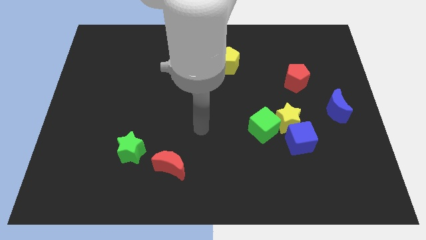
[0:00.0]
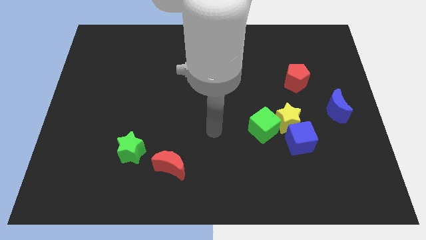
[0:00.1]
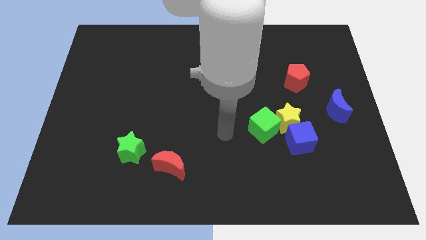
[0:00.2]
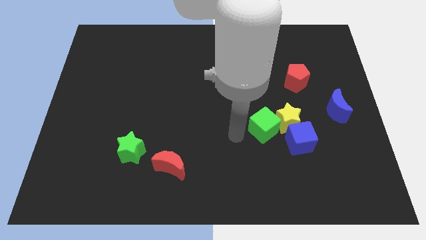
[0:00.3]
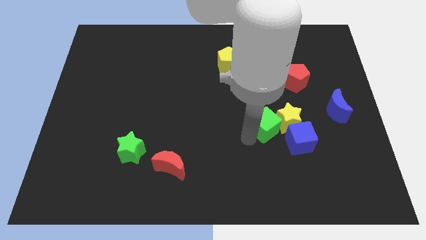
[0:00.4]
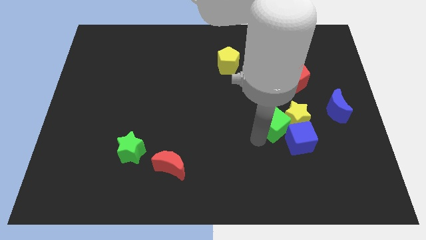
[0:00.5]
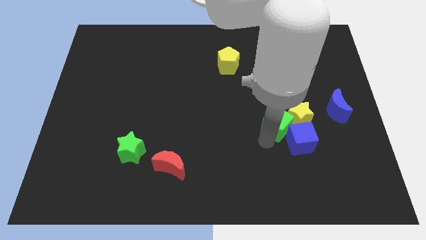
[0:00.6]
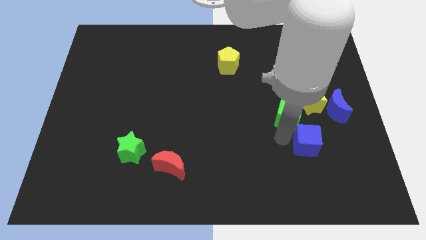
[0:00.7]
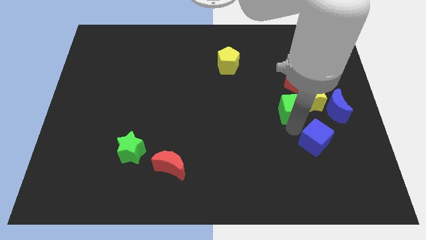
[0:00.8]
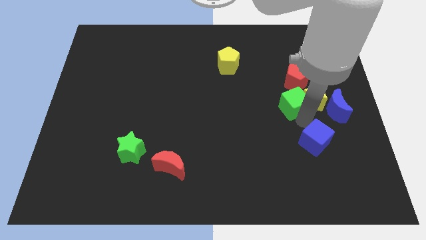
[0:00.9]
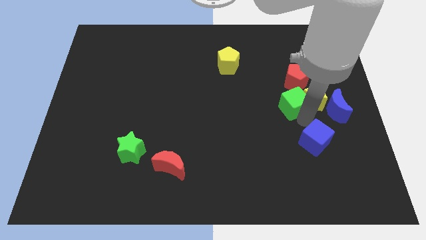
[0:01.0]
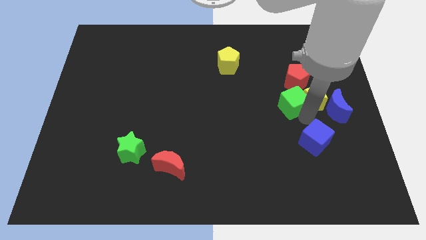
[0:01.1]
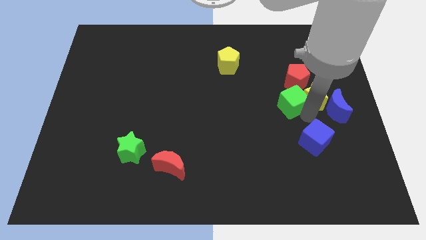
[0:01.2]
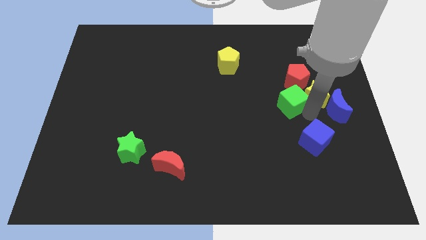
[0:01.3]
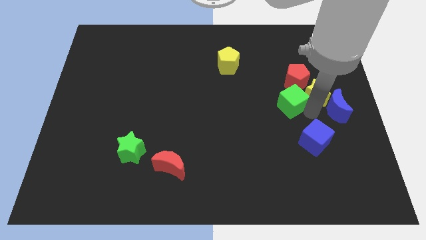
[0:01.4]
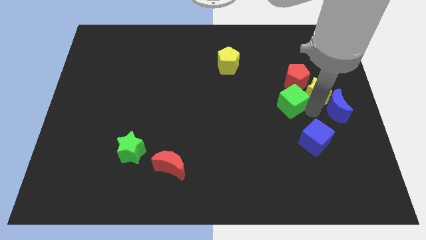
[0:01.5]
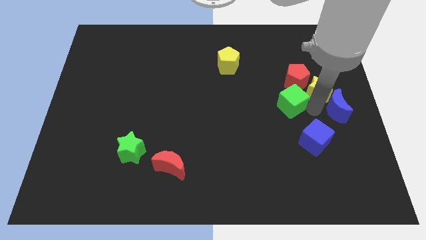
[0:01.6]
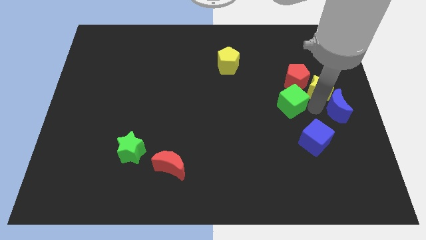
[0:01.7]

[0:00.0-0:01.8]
move the yellow star away from the blue cube and green cube

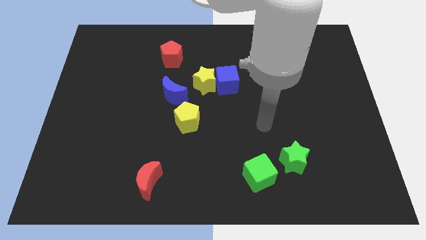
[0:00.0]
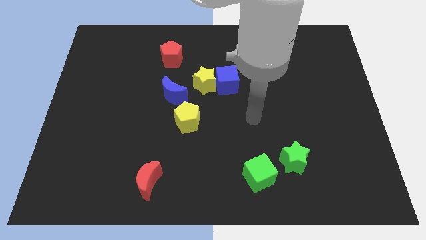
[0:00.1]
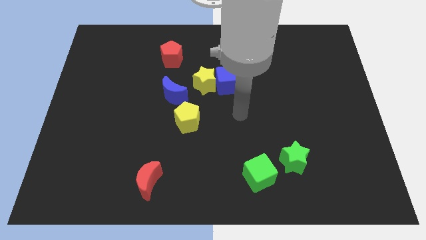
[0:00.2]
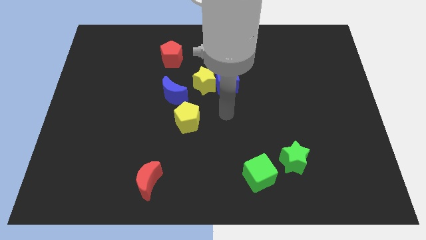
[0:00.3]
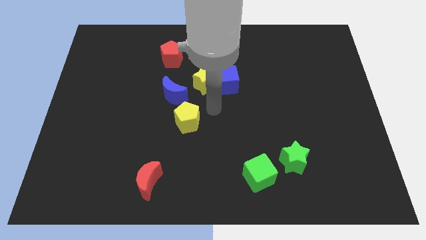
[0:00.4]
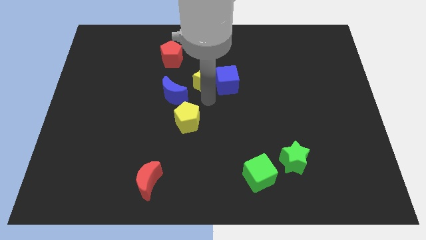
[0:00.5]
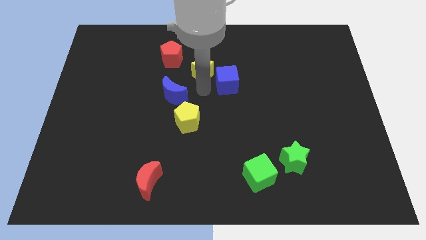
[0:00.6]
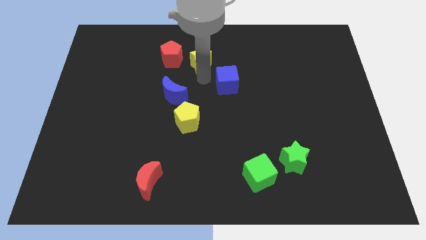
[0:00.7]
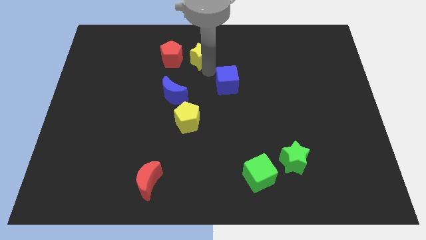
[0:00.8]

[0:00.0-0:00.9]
move the blue cube away from the yellow star

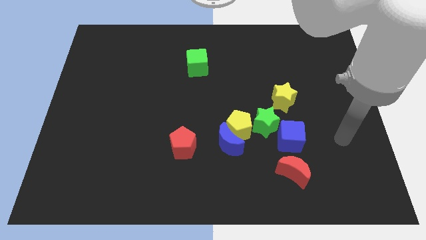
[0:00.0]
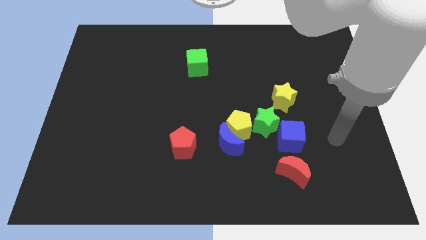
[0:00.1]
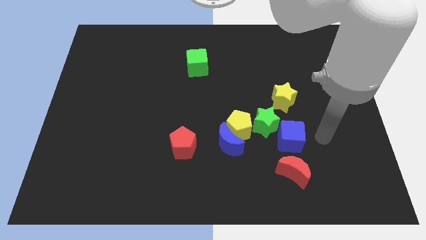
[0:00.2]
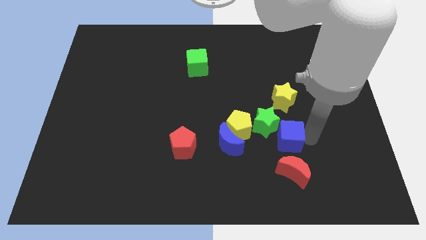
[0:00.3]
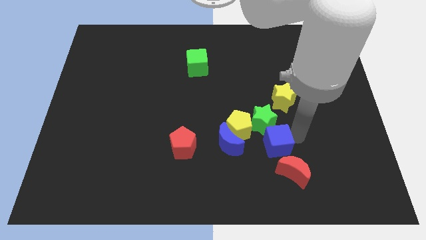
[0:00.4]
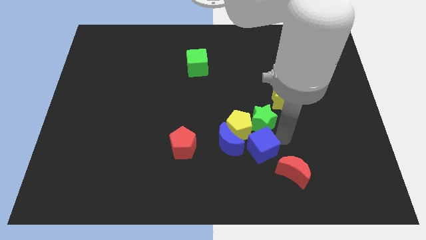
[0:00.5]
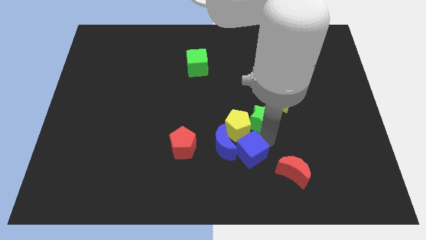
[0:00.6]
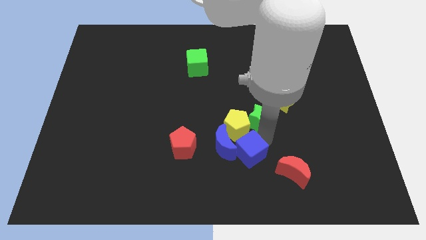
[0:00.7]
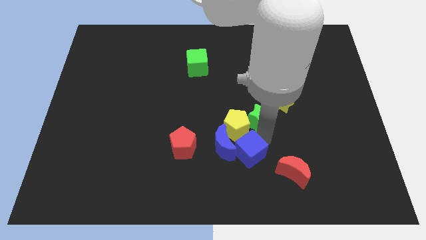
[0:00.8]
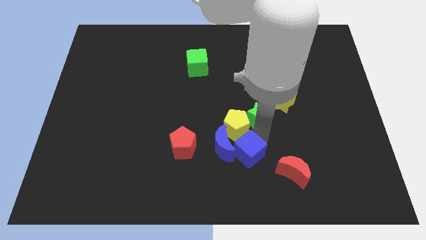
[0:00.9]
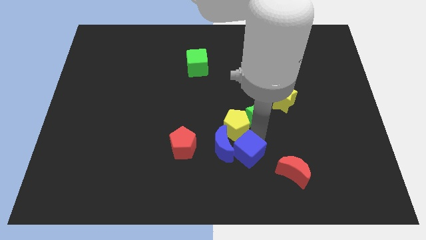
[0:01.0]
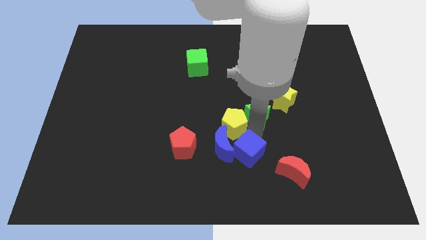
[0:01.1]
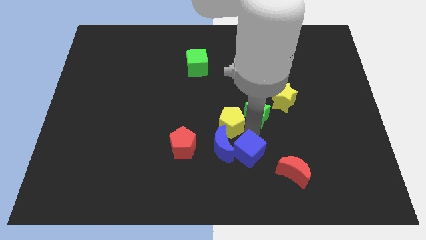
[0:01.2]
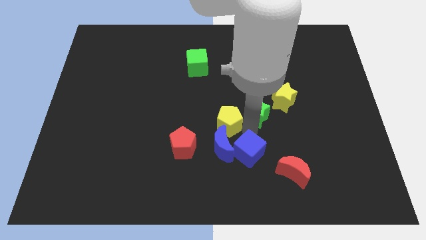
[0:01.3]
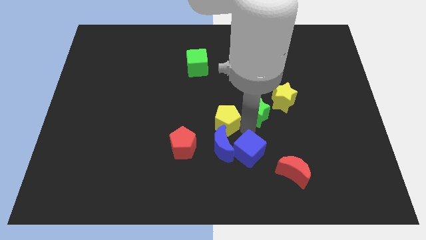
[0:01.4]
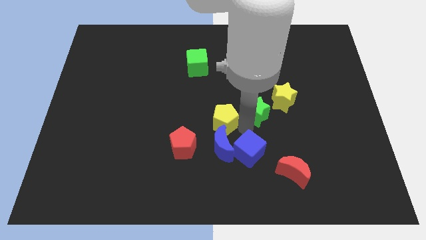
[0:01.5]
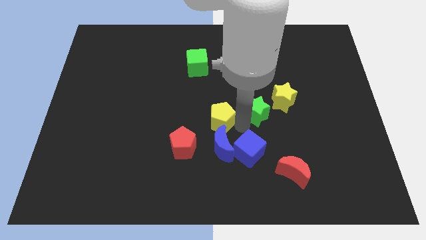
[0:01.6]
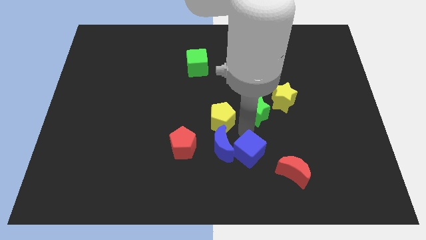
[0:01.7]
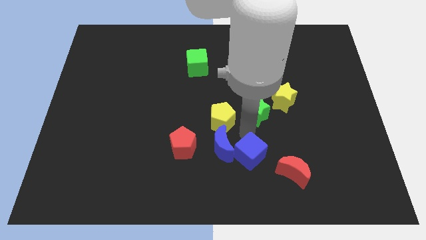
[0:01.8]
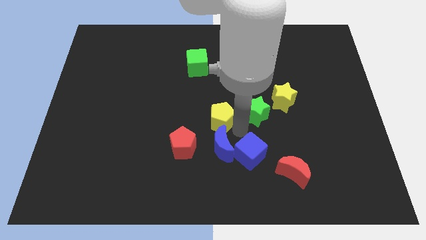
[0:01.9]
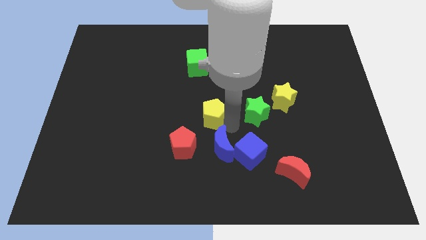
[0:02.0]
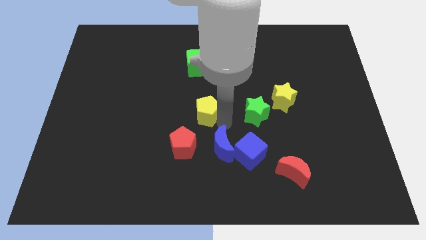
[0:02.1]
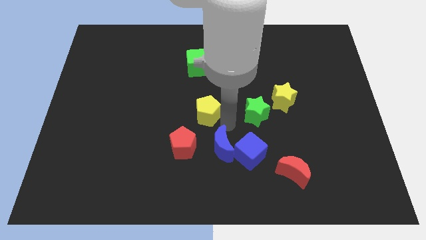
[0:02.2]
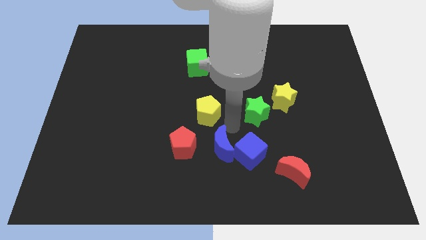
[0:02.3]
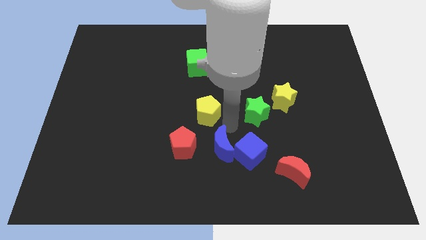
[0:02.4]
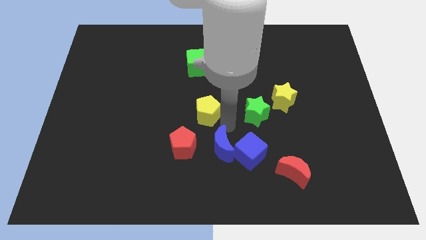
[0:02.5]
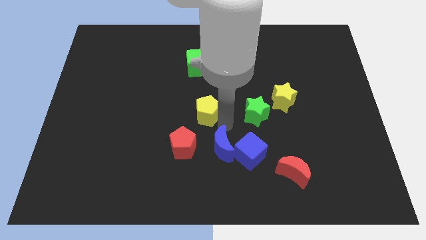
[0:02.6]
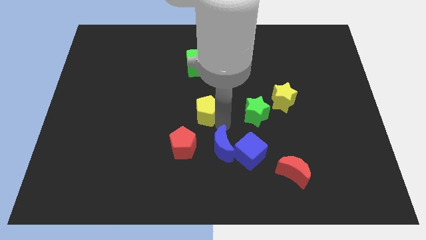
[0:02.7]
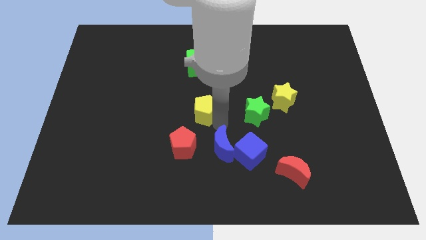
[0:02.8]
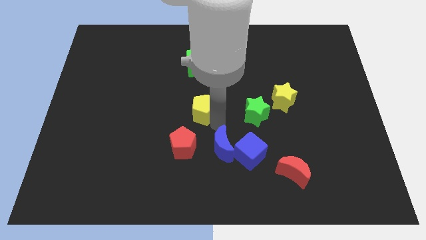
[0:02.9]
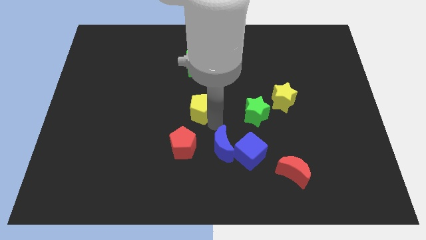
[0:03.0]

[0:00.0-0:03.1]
pull the yellow pentagon apart from the blue moon and green star

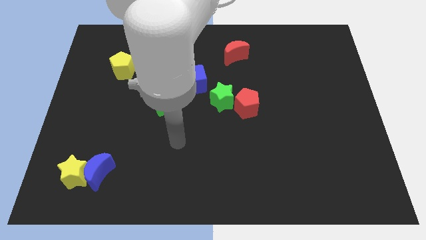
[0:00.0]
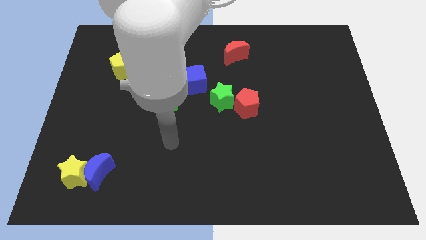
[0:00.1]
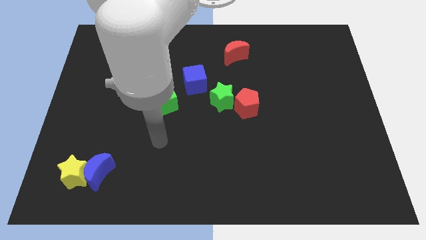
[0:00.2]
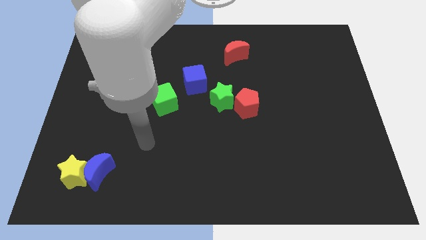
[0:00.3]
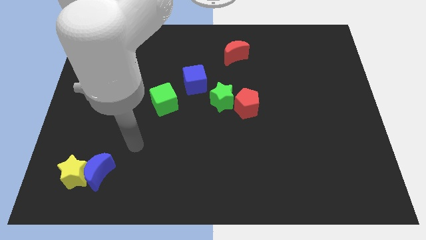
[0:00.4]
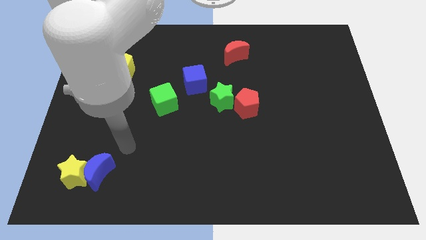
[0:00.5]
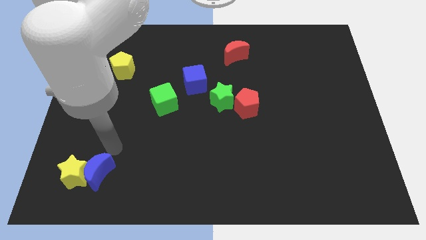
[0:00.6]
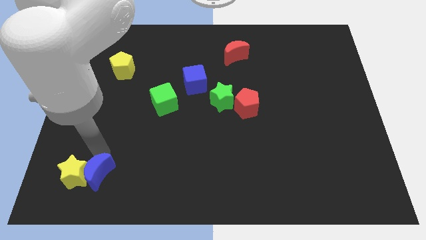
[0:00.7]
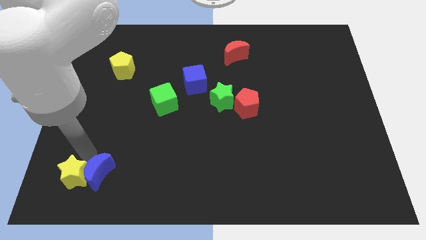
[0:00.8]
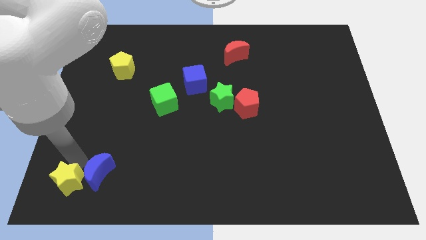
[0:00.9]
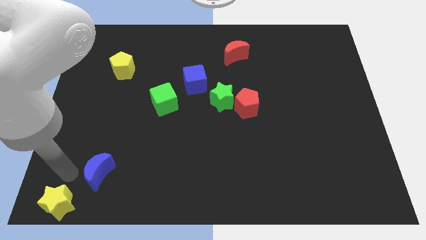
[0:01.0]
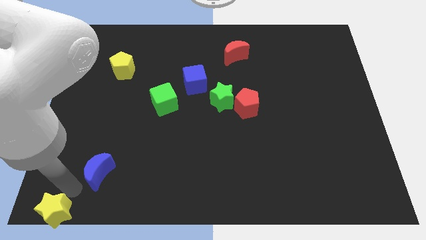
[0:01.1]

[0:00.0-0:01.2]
separate the blue moon from the yellow star

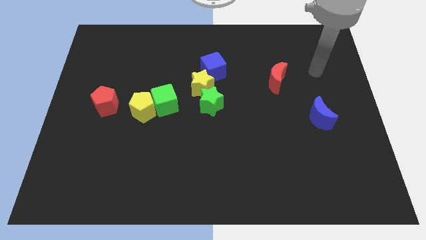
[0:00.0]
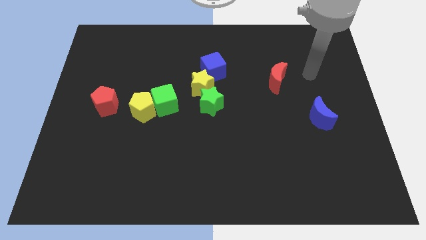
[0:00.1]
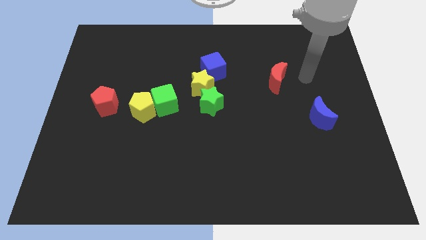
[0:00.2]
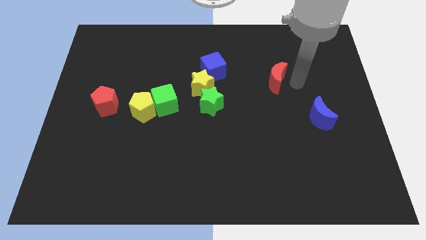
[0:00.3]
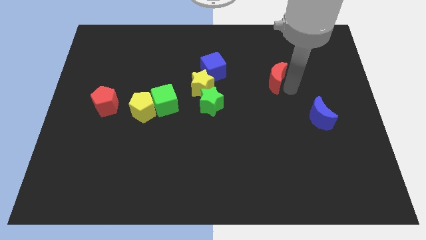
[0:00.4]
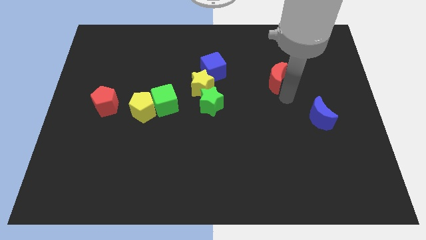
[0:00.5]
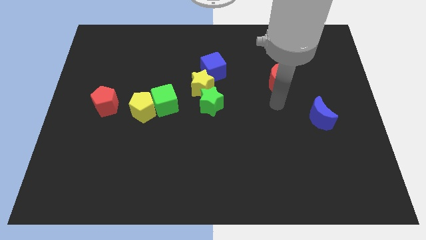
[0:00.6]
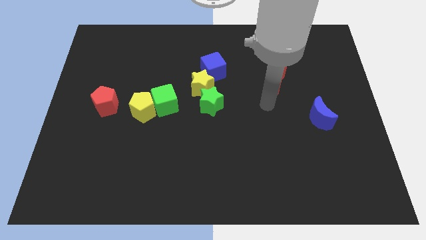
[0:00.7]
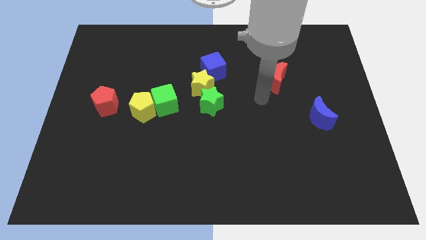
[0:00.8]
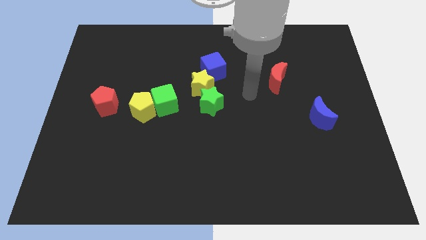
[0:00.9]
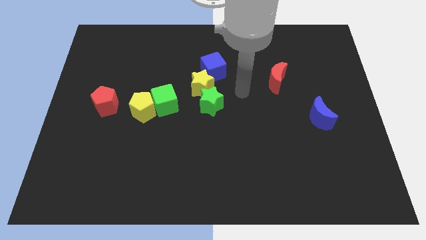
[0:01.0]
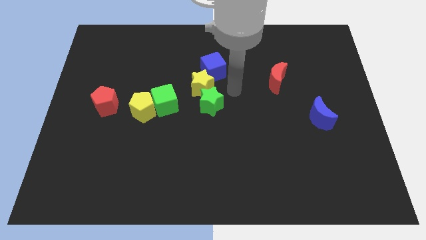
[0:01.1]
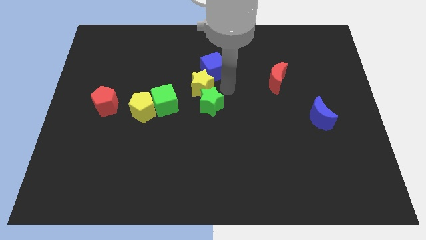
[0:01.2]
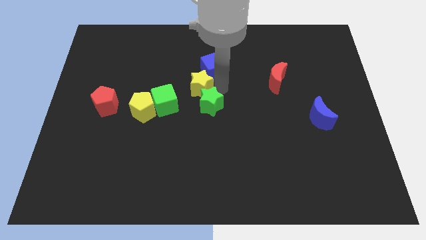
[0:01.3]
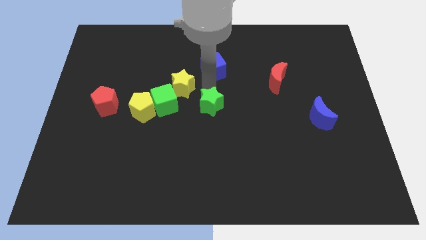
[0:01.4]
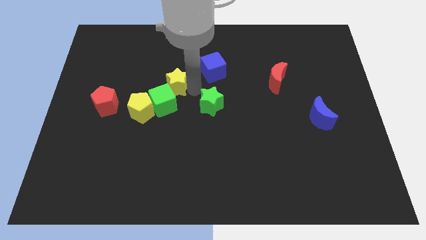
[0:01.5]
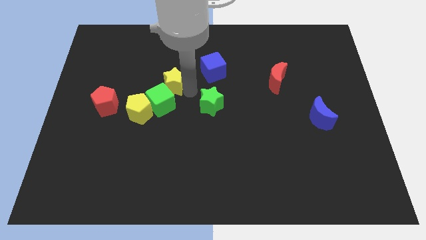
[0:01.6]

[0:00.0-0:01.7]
separate the green star from the yellow star

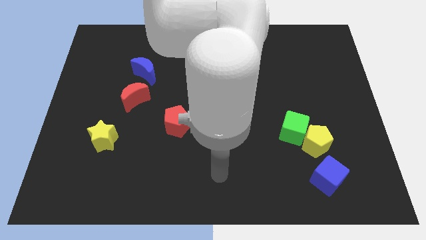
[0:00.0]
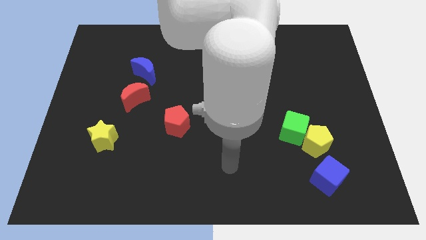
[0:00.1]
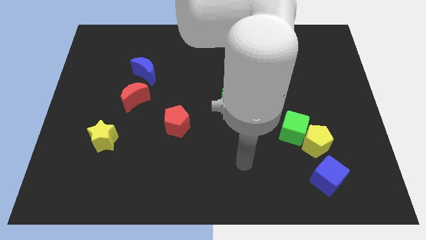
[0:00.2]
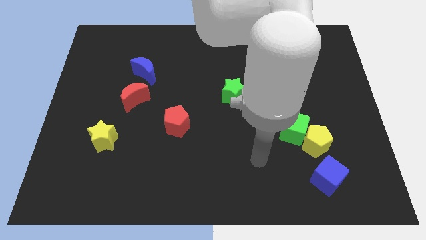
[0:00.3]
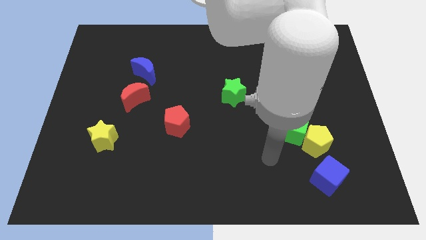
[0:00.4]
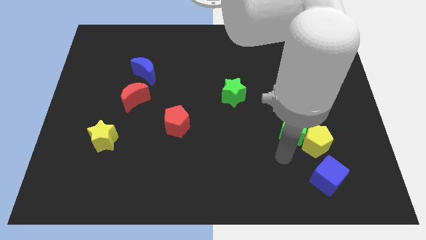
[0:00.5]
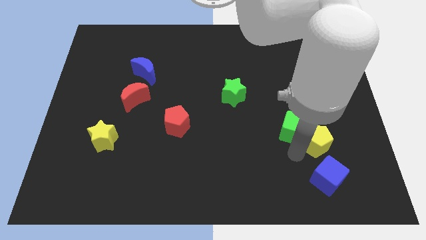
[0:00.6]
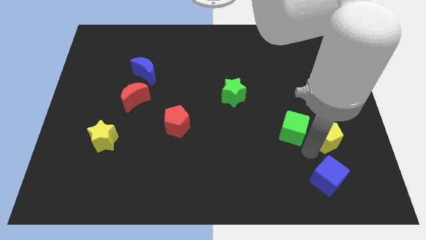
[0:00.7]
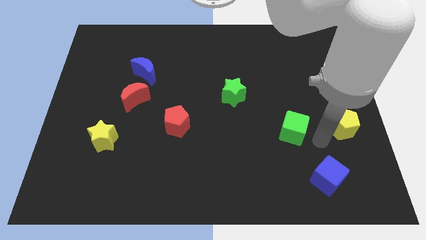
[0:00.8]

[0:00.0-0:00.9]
separate the green cube from the yellow pentagon
